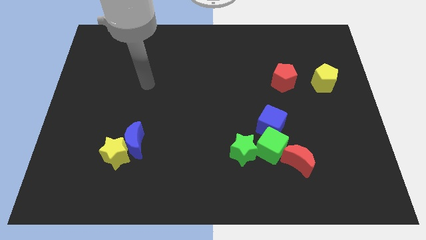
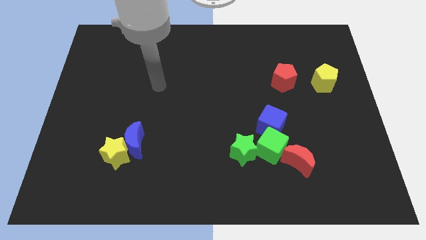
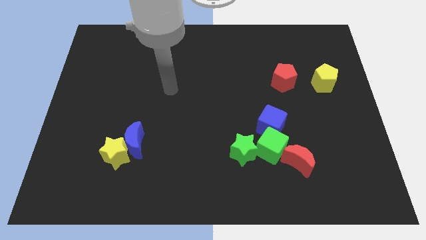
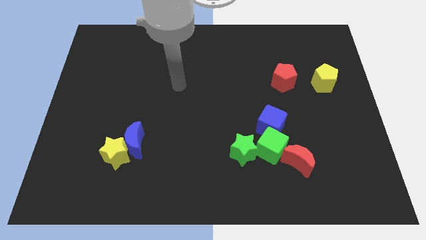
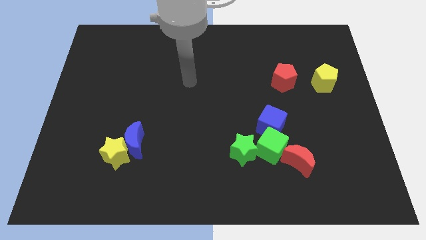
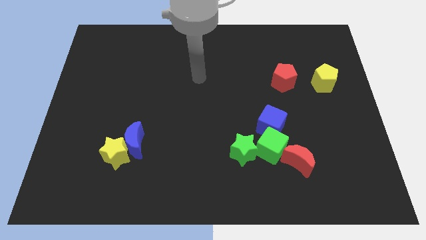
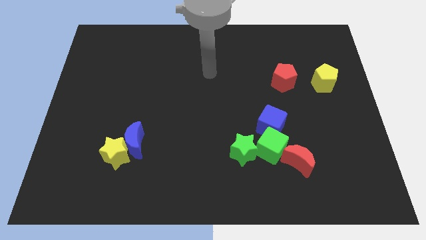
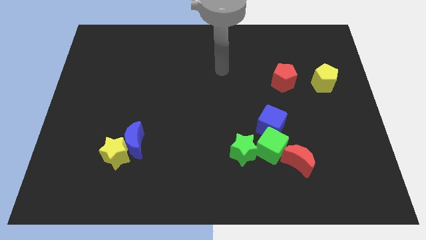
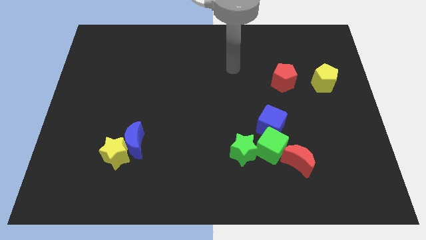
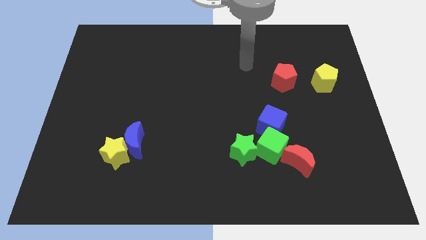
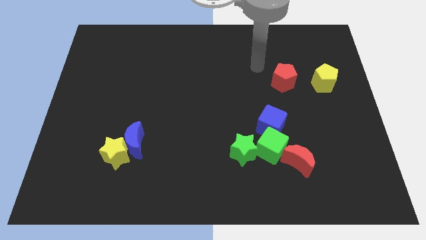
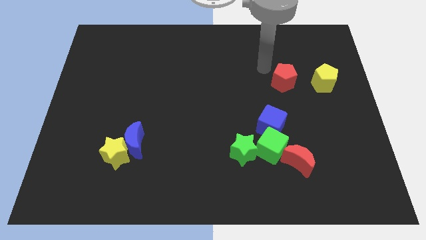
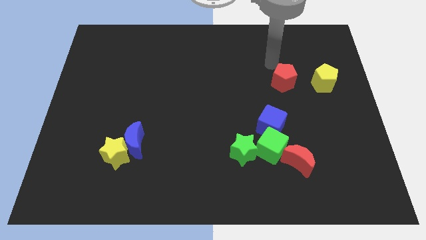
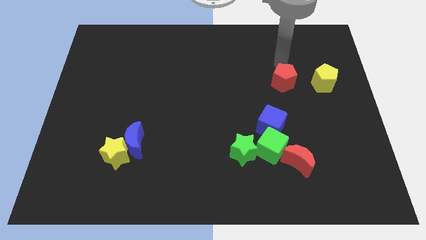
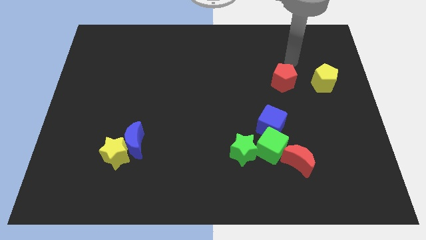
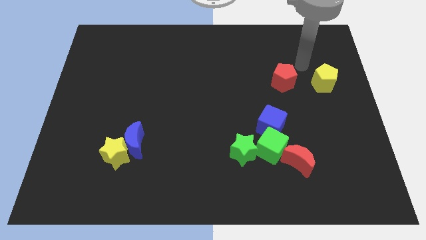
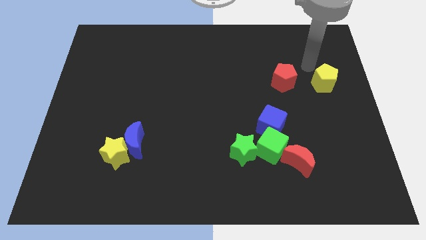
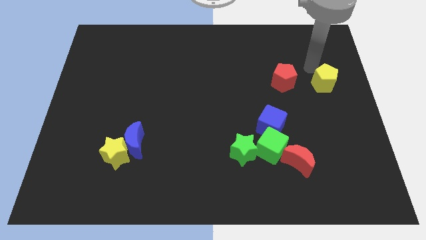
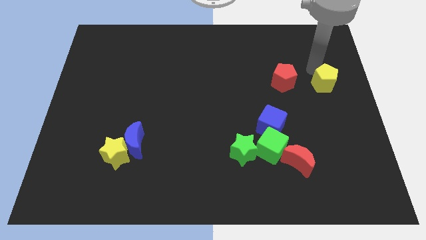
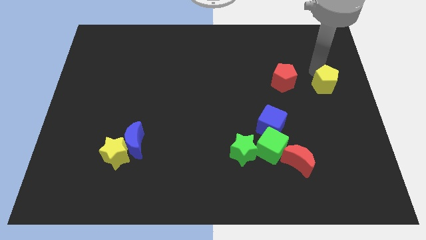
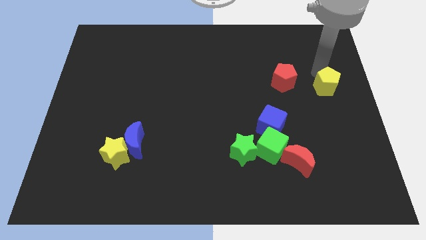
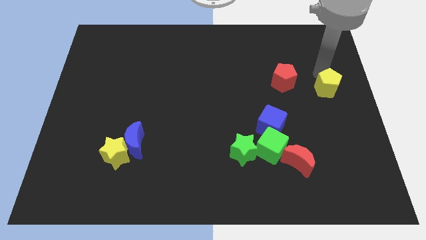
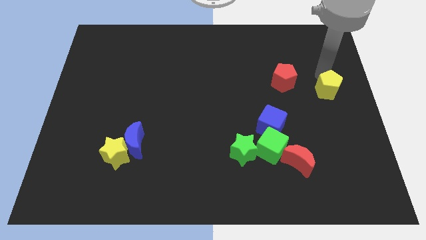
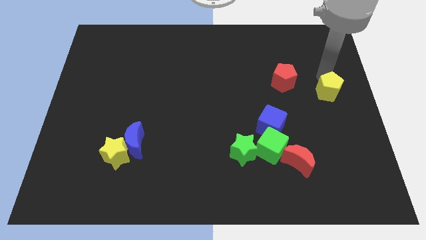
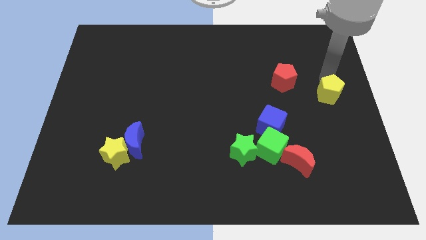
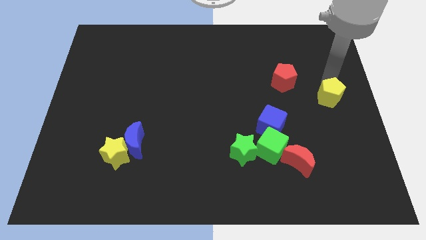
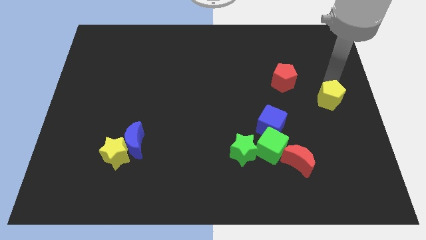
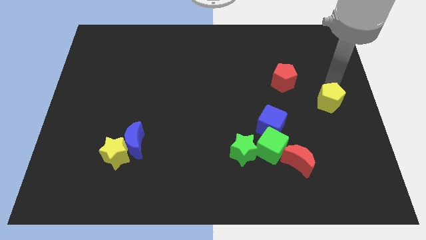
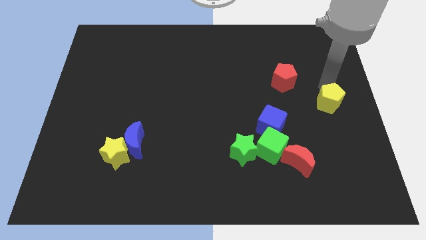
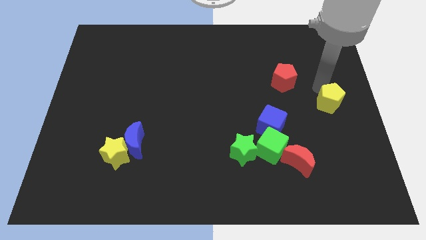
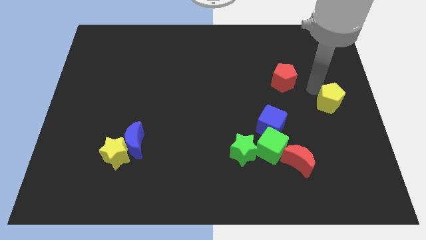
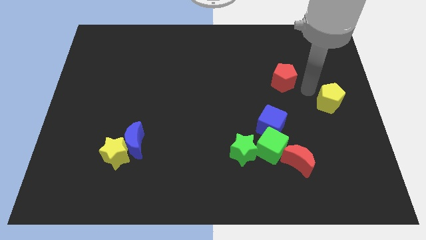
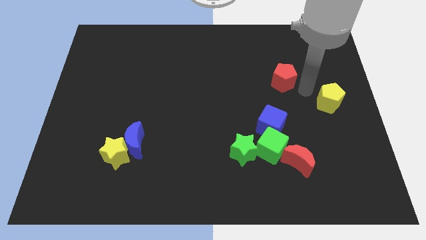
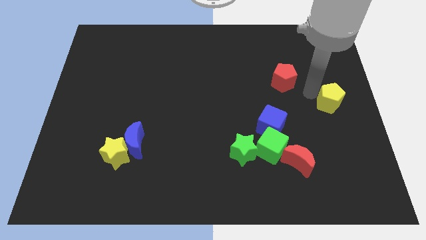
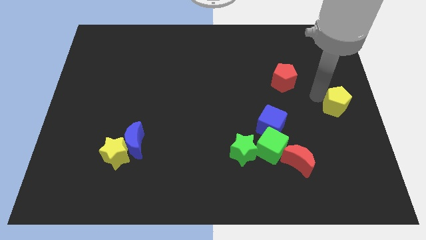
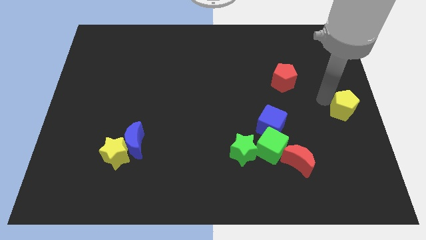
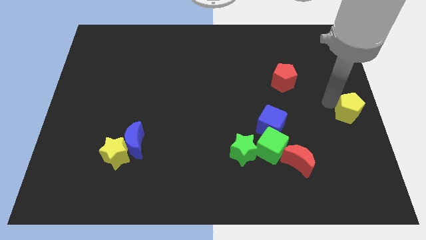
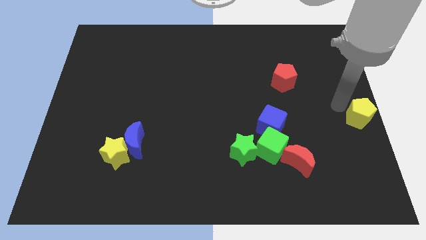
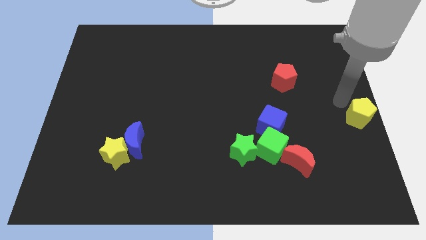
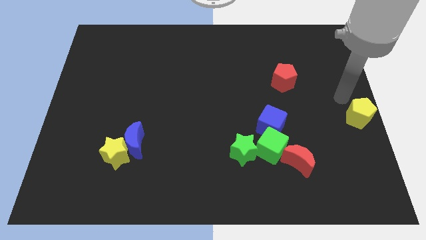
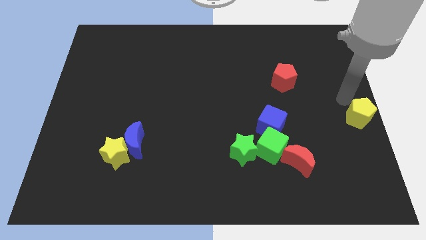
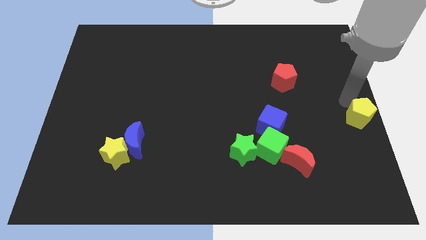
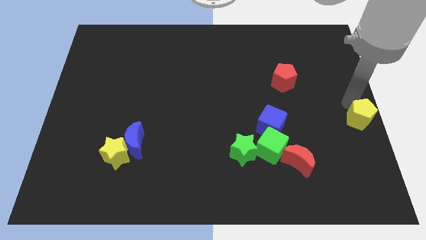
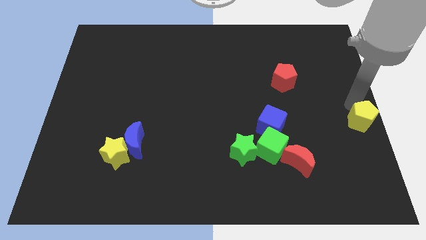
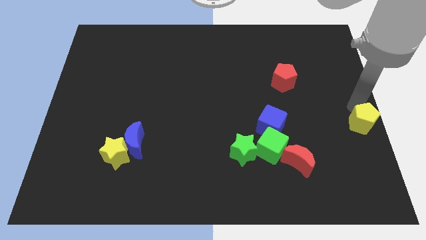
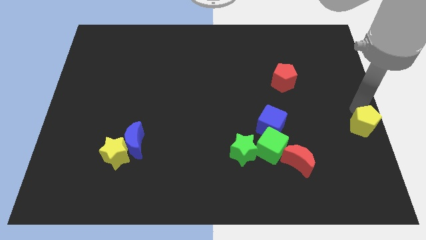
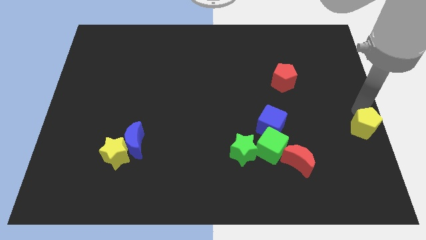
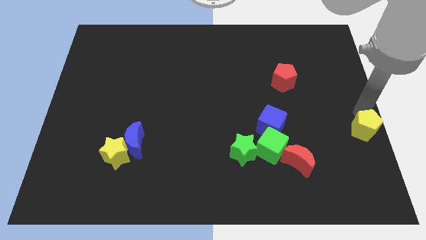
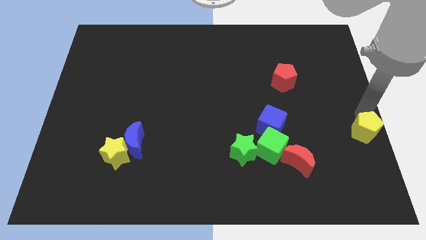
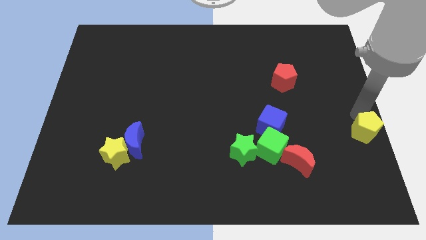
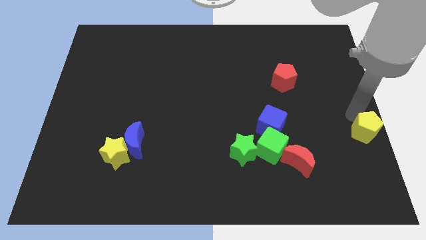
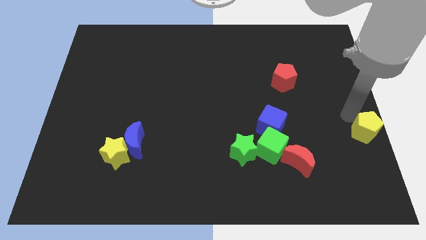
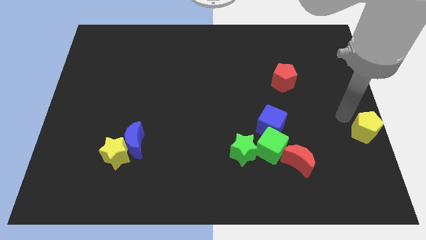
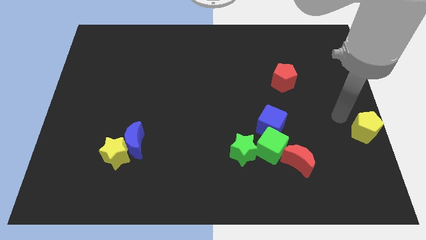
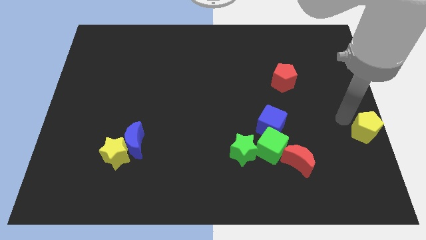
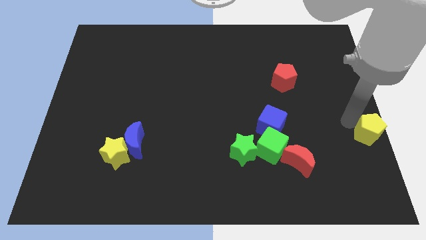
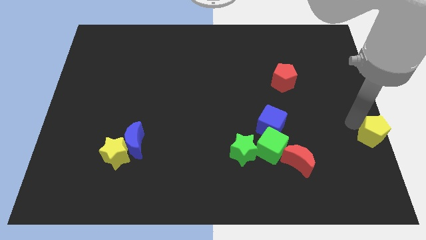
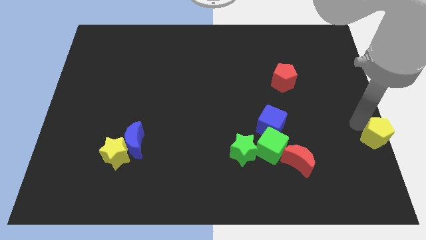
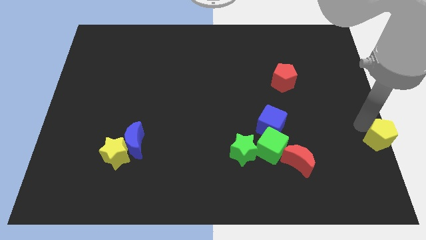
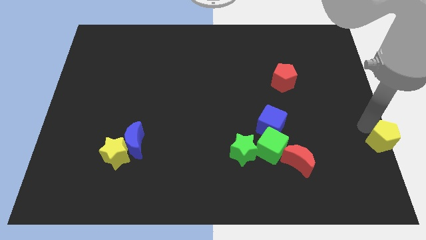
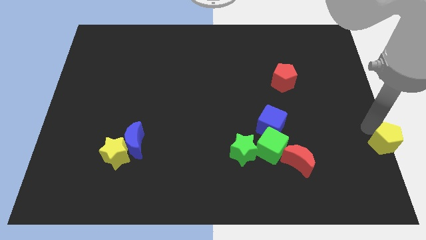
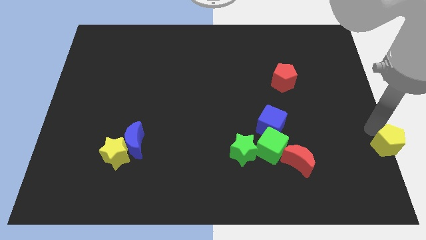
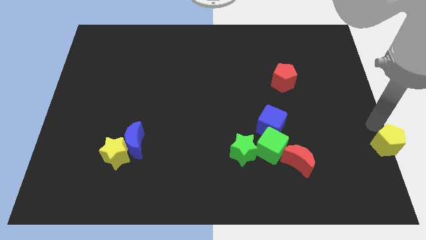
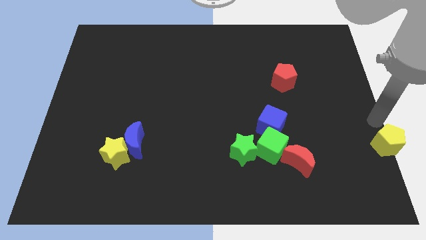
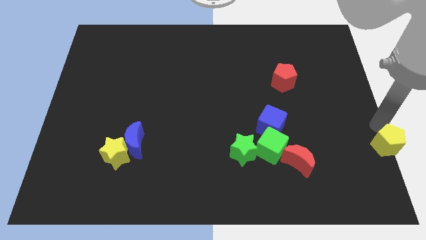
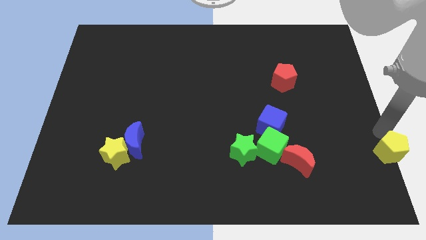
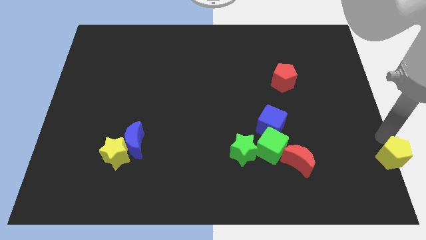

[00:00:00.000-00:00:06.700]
push the yellow pentagon to the bottom right

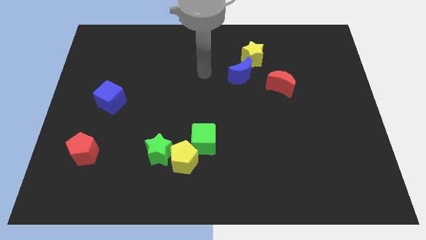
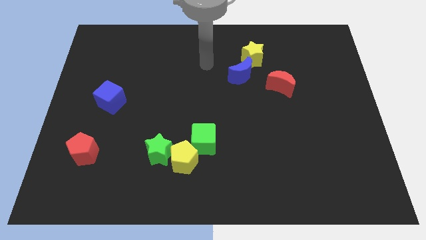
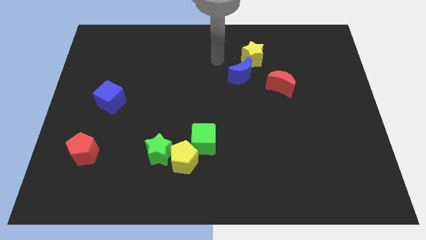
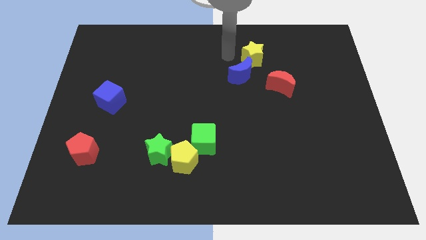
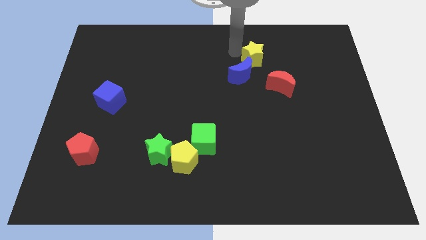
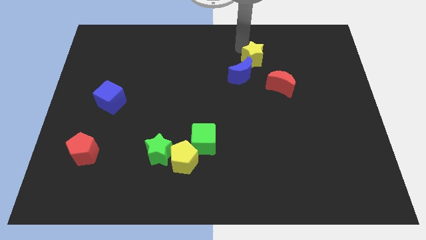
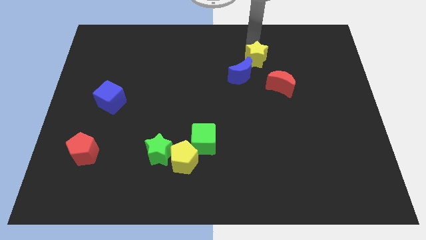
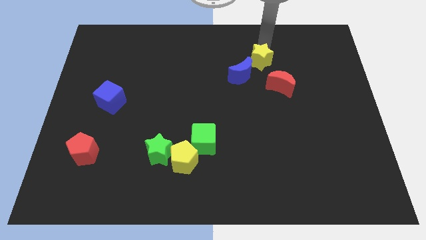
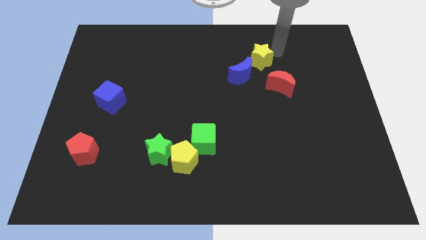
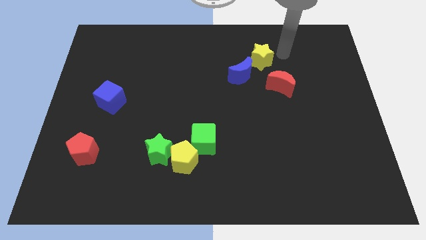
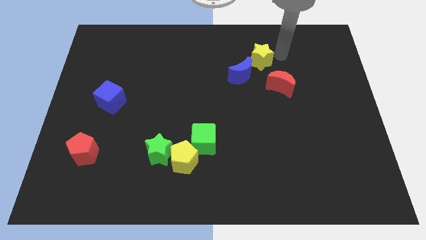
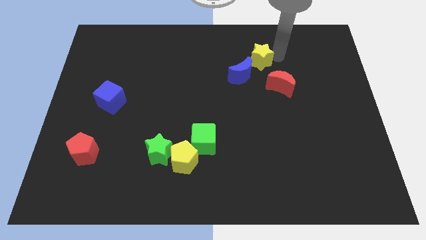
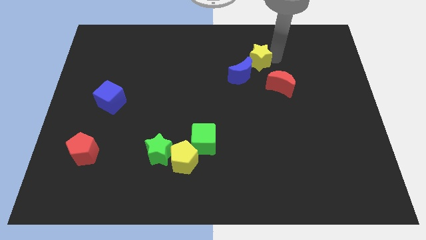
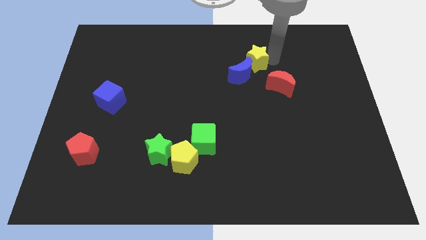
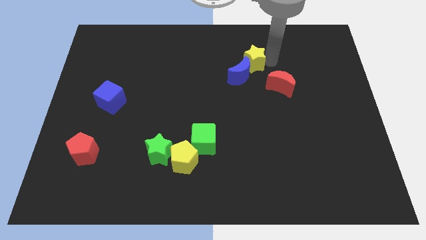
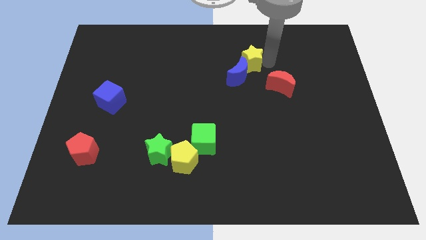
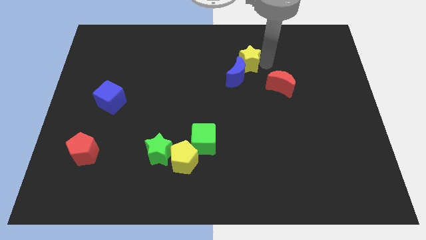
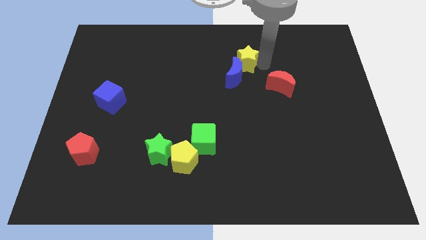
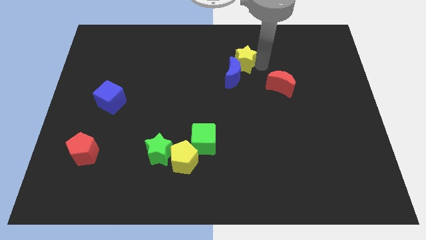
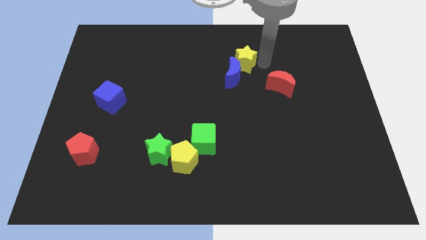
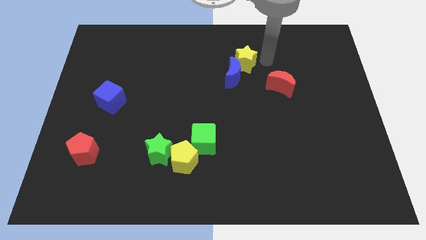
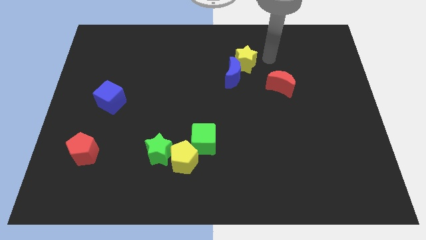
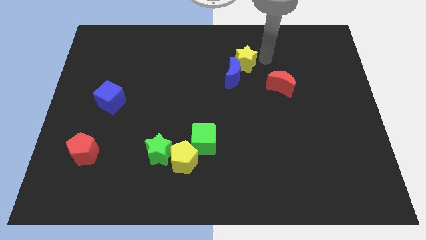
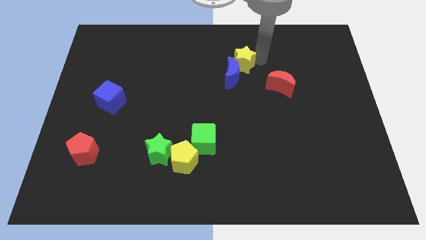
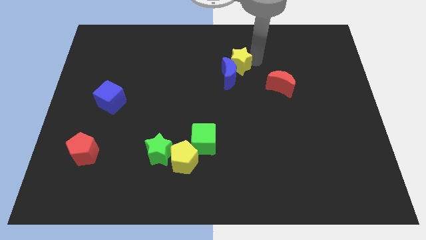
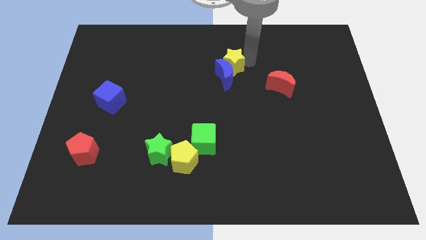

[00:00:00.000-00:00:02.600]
slide the yellow star to the middle of the board
